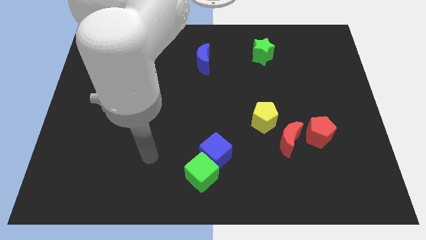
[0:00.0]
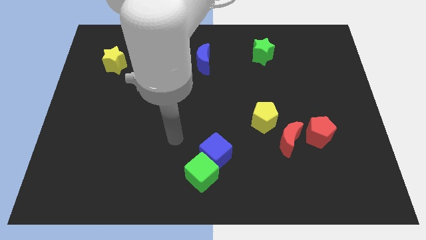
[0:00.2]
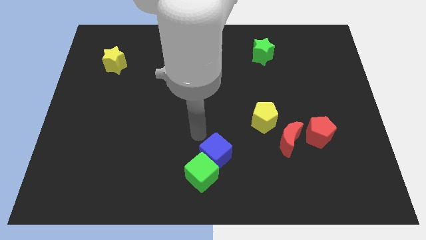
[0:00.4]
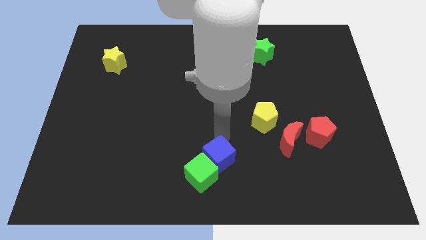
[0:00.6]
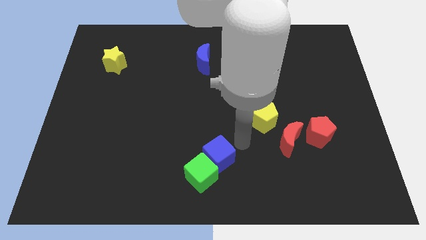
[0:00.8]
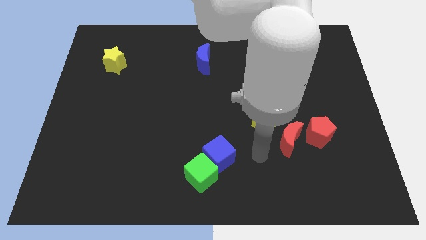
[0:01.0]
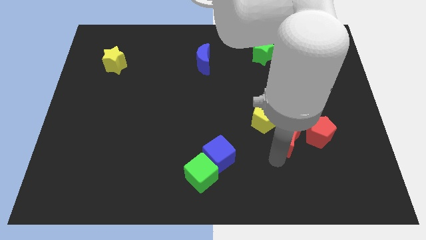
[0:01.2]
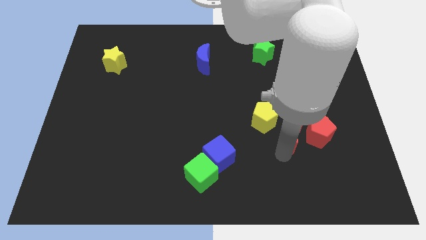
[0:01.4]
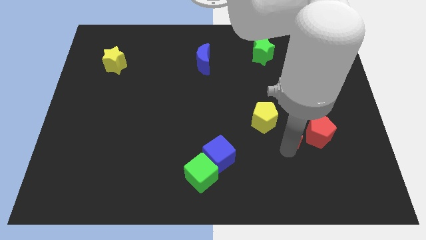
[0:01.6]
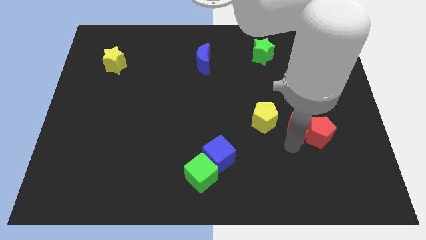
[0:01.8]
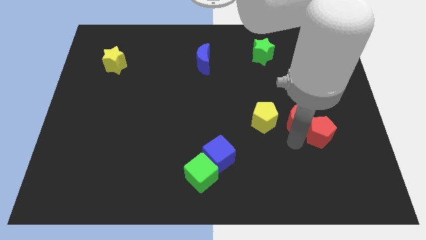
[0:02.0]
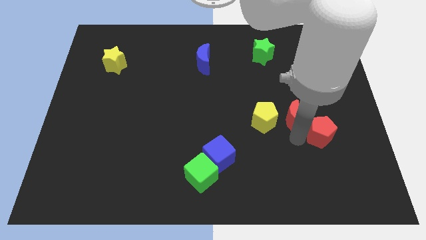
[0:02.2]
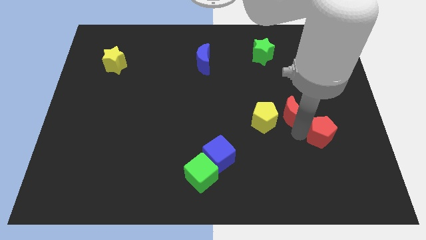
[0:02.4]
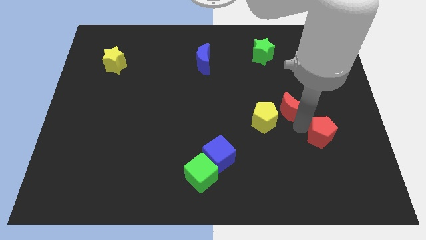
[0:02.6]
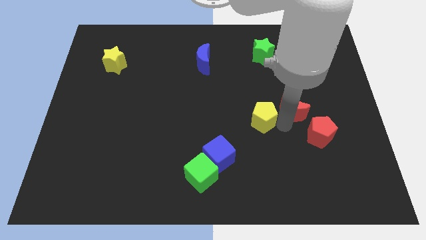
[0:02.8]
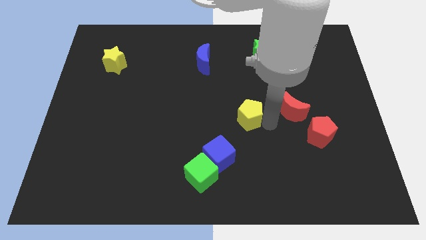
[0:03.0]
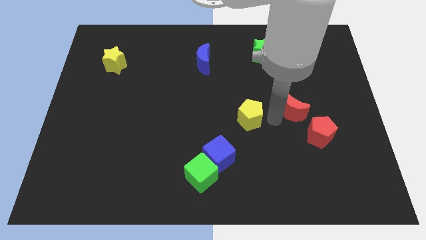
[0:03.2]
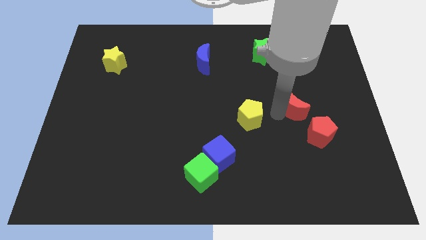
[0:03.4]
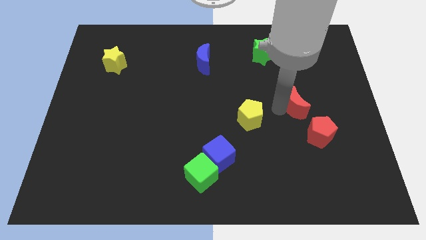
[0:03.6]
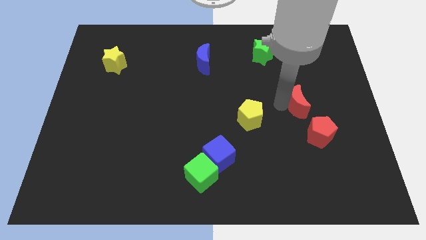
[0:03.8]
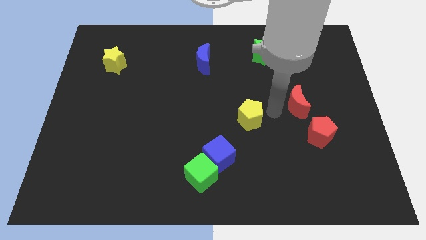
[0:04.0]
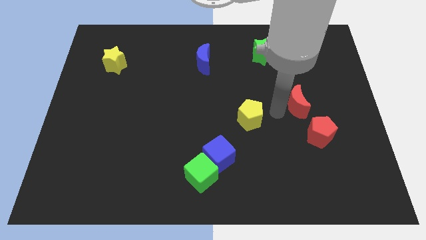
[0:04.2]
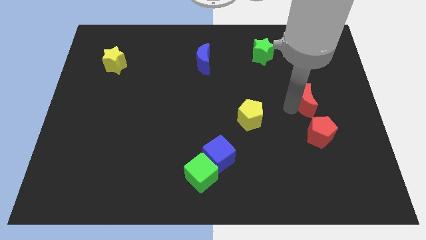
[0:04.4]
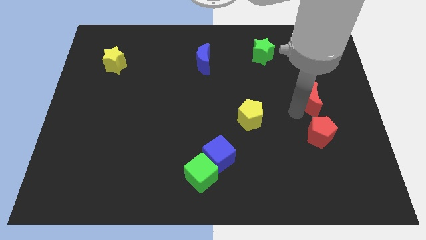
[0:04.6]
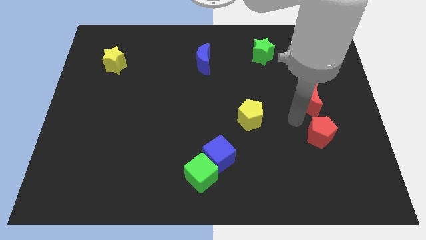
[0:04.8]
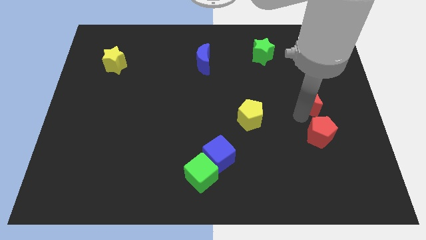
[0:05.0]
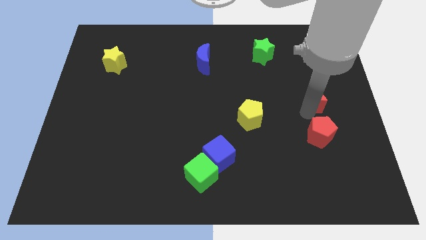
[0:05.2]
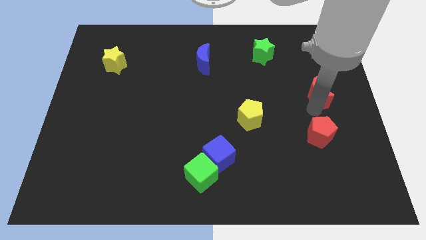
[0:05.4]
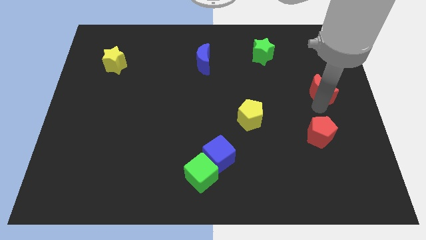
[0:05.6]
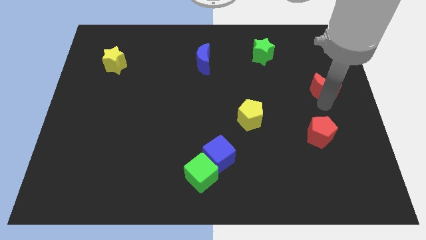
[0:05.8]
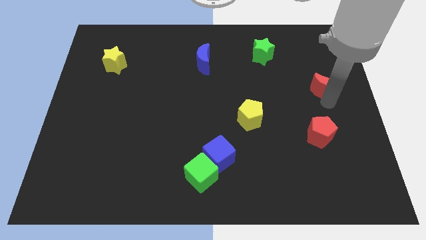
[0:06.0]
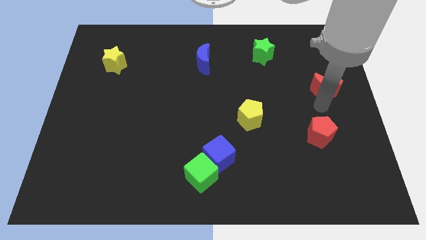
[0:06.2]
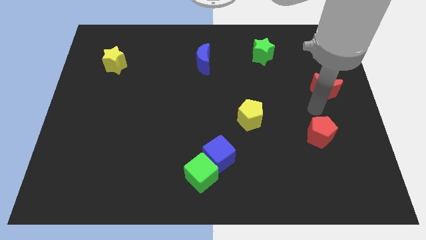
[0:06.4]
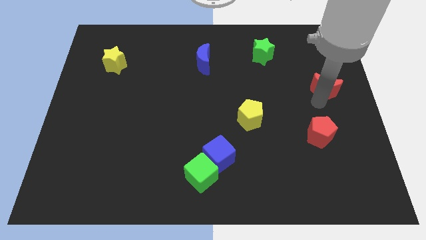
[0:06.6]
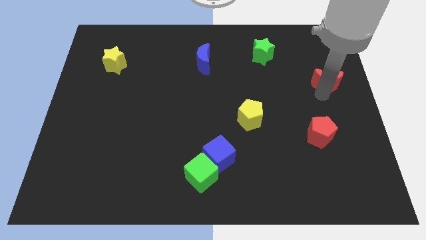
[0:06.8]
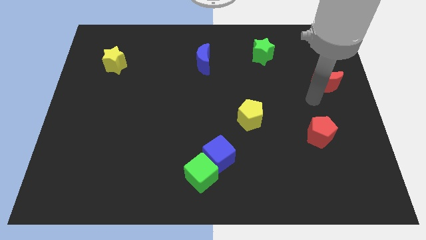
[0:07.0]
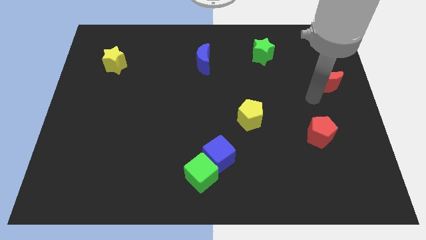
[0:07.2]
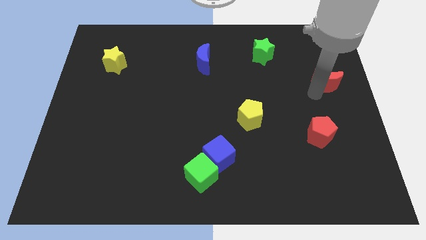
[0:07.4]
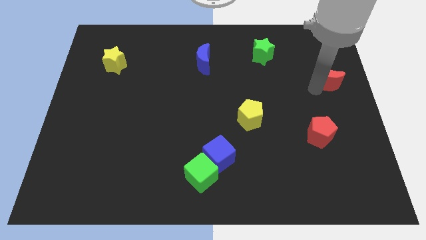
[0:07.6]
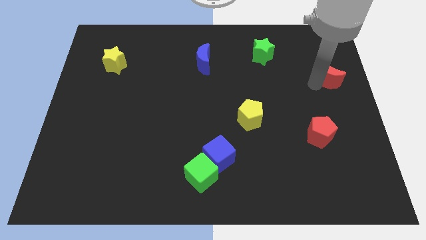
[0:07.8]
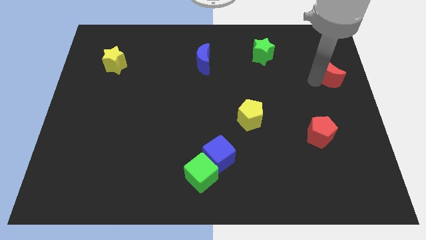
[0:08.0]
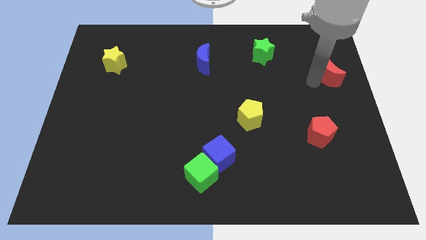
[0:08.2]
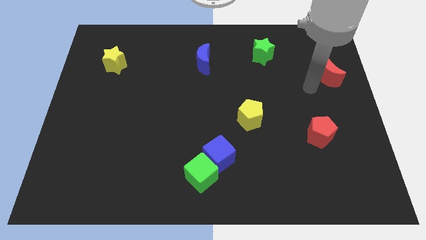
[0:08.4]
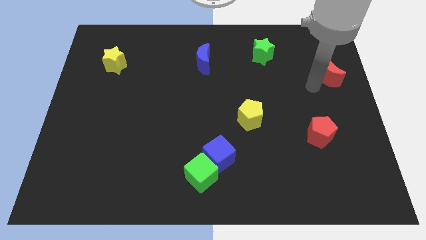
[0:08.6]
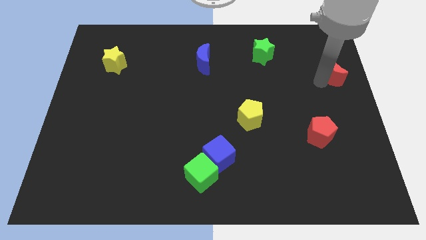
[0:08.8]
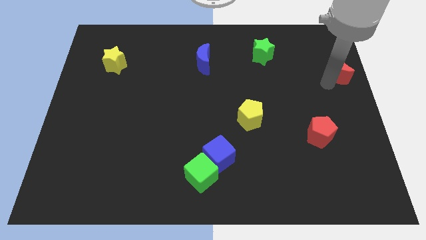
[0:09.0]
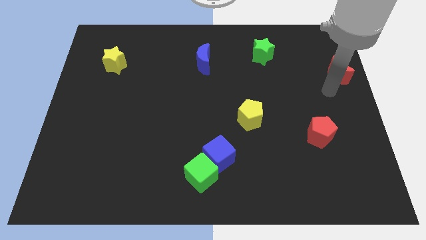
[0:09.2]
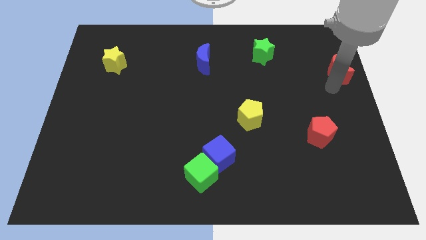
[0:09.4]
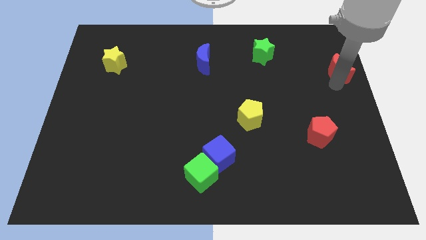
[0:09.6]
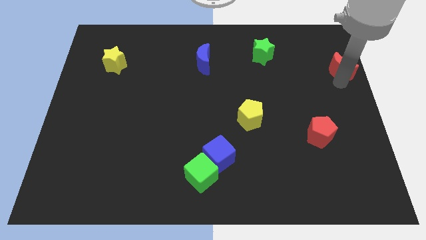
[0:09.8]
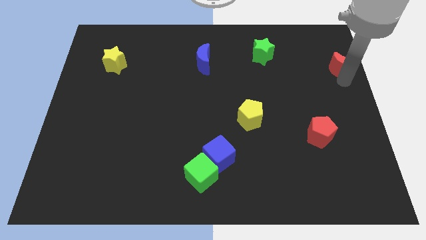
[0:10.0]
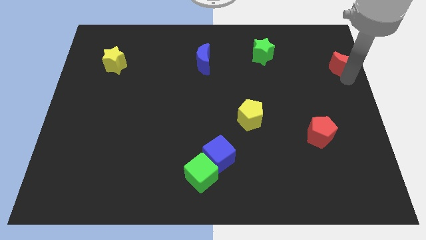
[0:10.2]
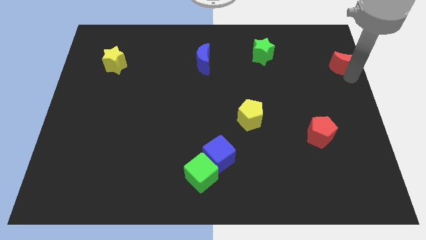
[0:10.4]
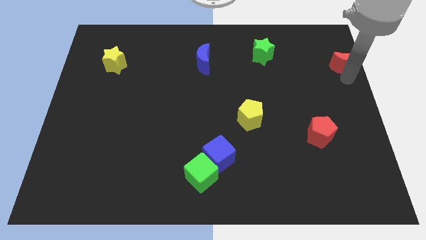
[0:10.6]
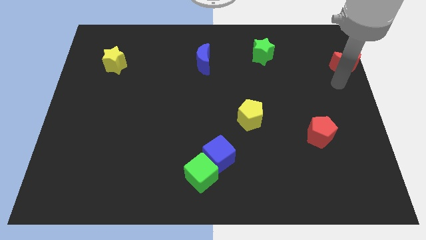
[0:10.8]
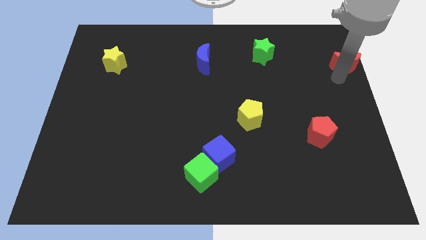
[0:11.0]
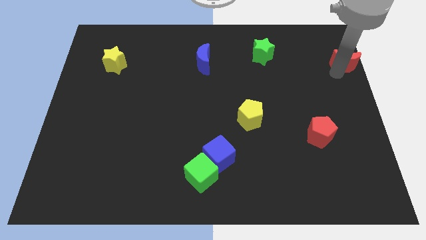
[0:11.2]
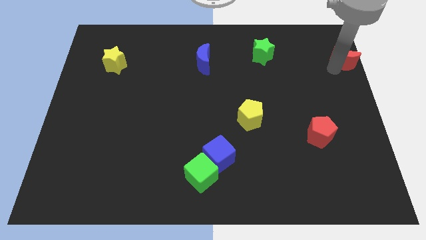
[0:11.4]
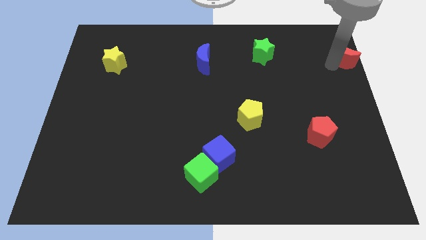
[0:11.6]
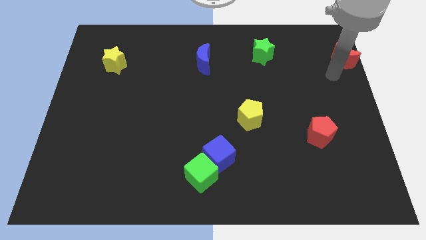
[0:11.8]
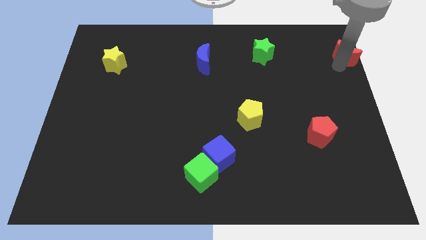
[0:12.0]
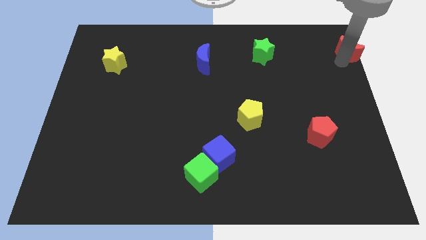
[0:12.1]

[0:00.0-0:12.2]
move the red moon to the top right of the board

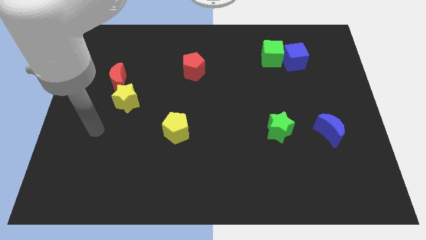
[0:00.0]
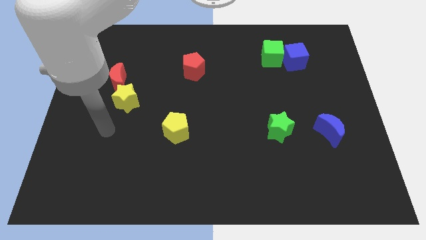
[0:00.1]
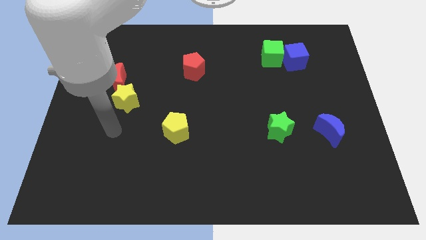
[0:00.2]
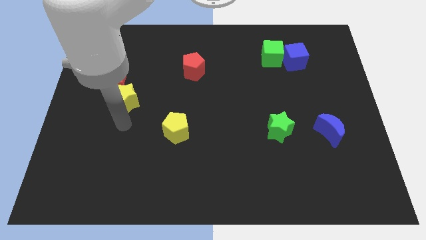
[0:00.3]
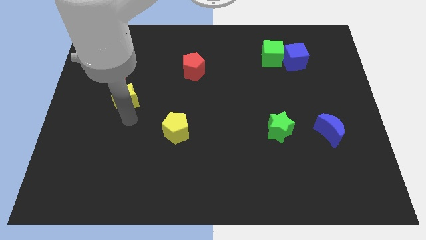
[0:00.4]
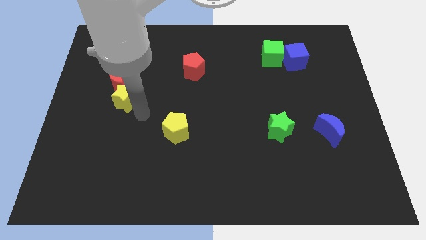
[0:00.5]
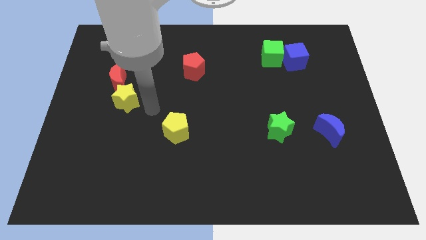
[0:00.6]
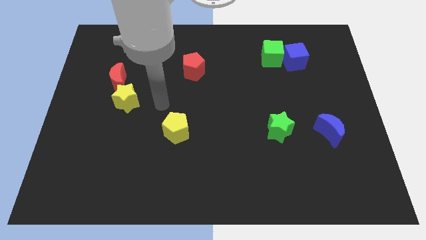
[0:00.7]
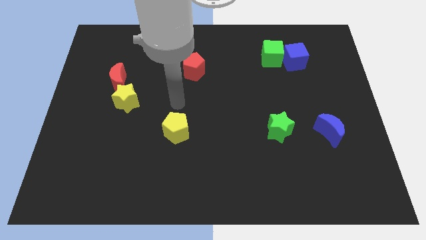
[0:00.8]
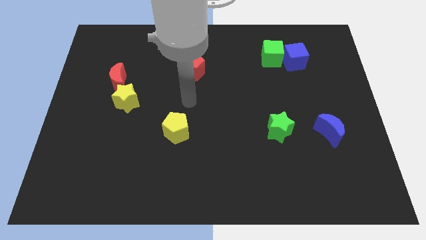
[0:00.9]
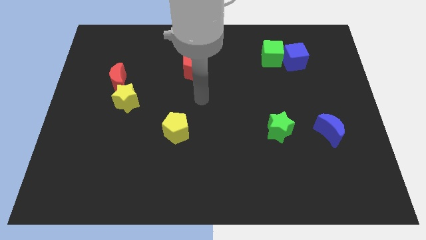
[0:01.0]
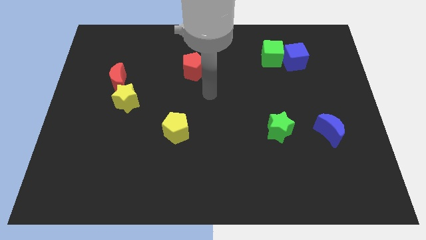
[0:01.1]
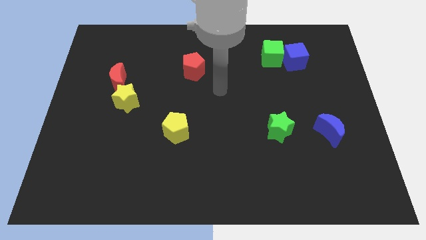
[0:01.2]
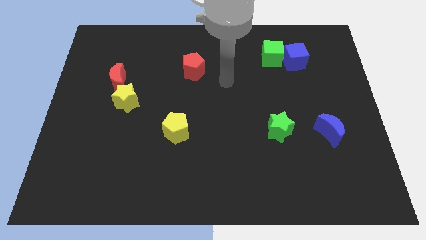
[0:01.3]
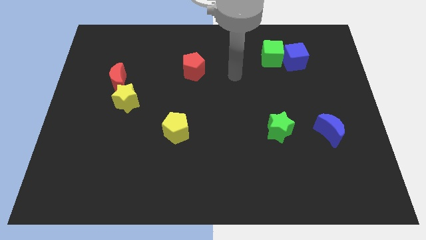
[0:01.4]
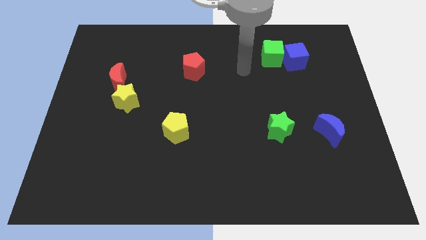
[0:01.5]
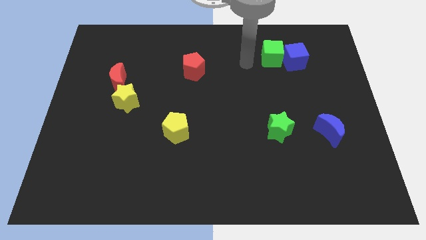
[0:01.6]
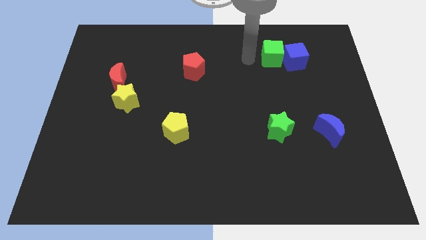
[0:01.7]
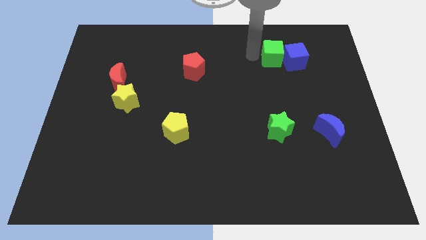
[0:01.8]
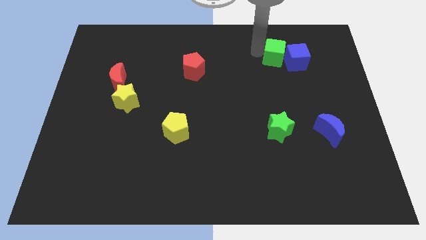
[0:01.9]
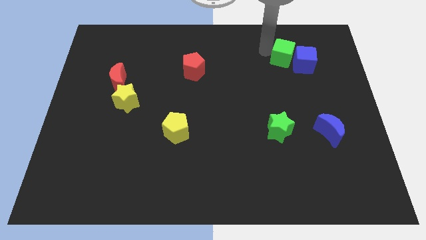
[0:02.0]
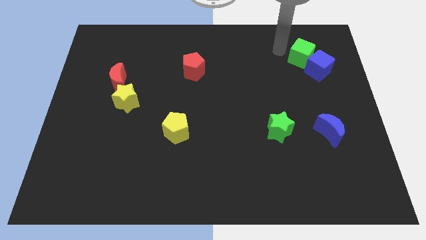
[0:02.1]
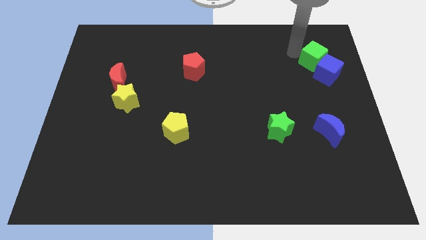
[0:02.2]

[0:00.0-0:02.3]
slide the blue cube to the right side of the board
